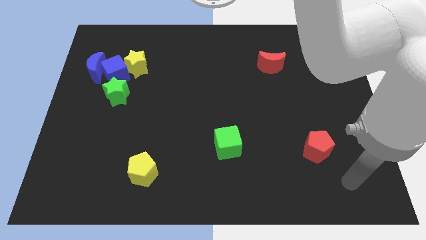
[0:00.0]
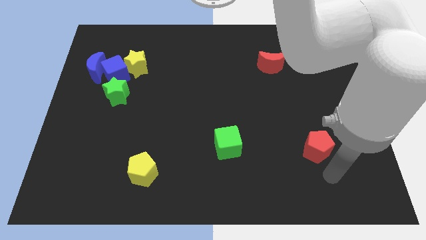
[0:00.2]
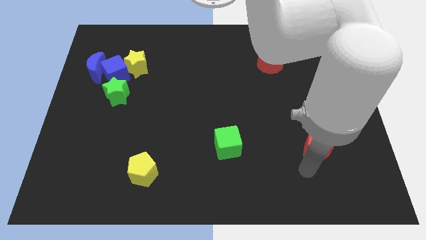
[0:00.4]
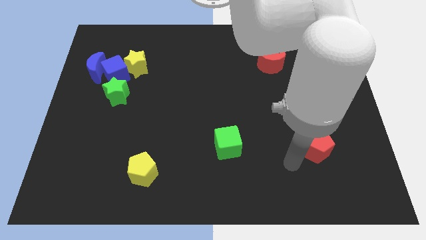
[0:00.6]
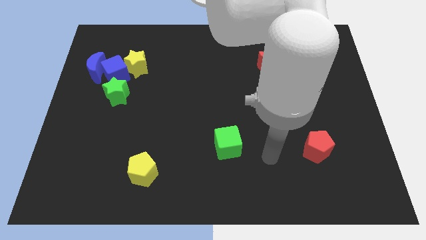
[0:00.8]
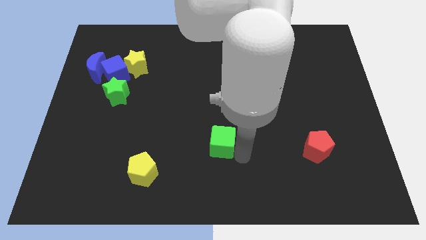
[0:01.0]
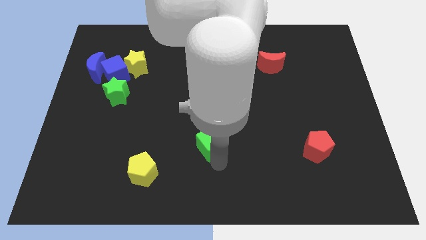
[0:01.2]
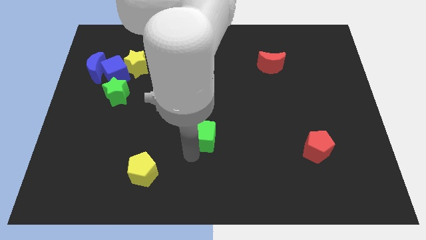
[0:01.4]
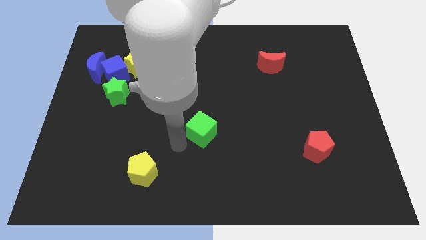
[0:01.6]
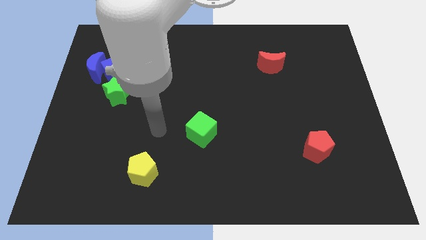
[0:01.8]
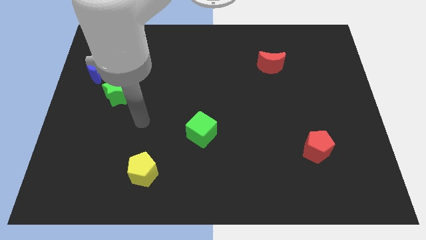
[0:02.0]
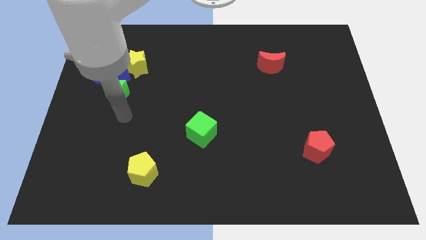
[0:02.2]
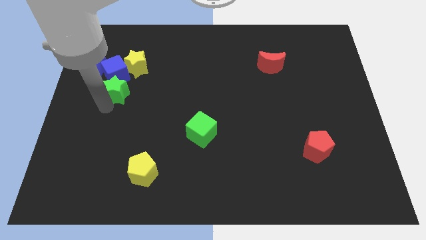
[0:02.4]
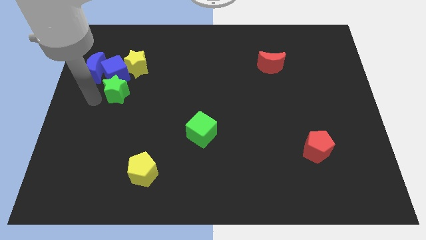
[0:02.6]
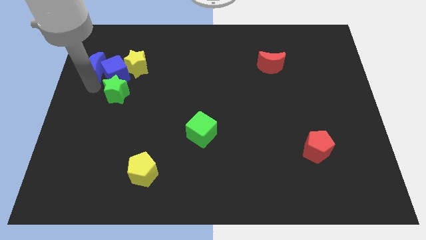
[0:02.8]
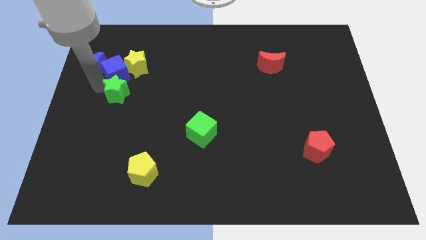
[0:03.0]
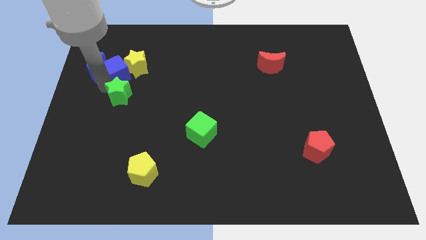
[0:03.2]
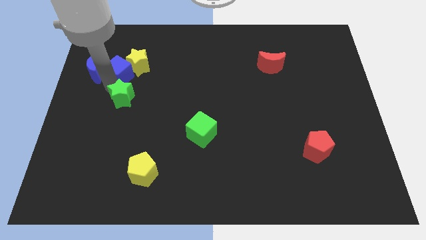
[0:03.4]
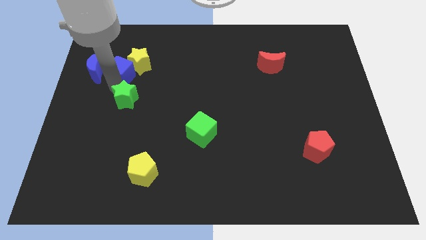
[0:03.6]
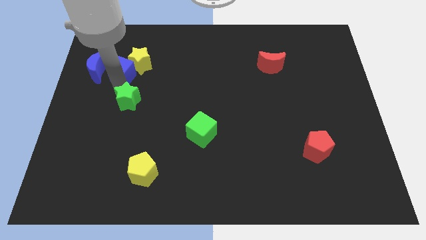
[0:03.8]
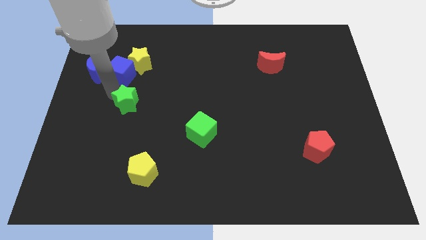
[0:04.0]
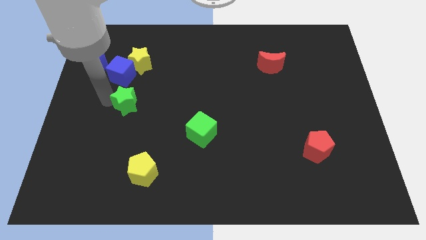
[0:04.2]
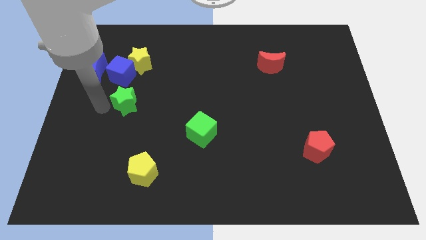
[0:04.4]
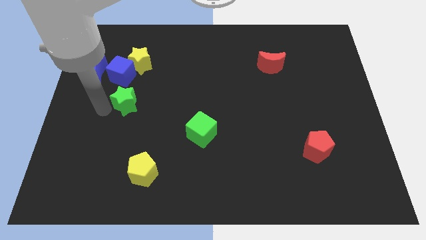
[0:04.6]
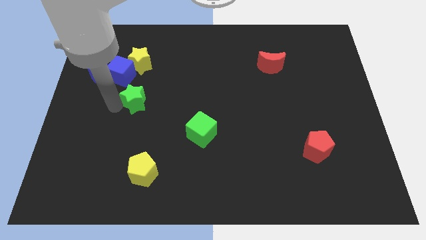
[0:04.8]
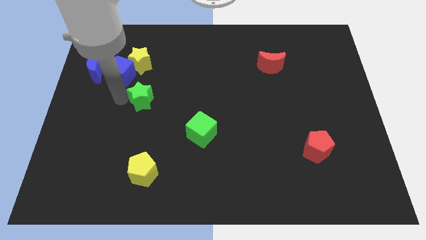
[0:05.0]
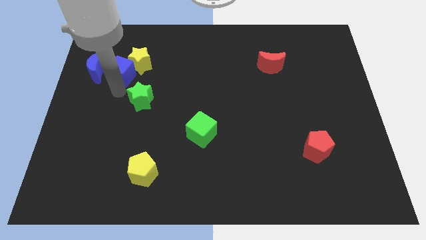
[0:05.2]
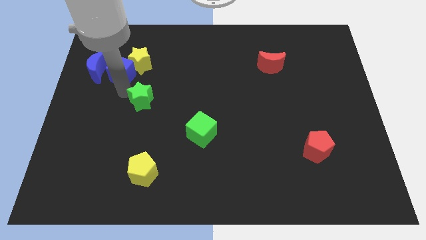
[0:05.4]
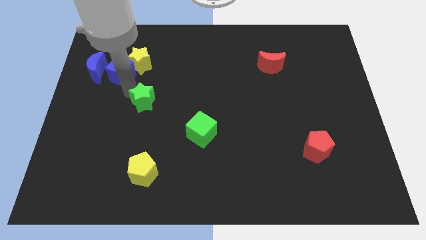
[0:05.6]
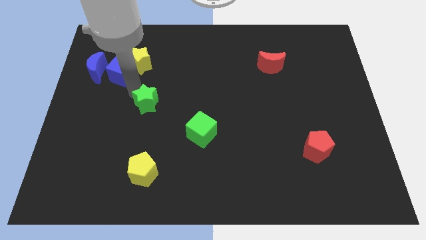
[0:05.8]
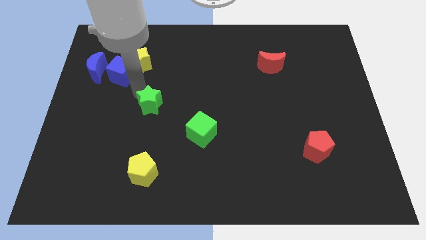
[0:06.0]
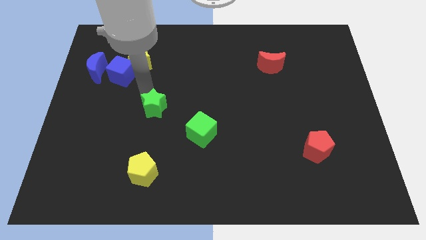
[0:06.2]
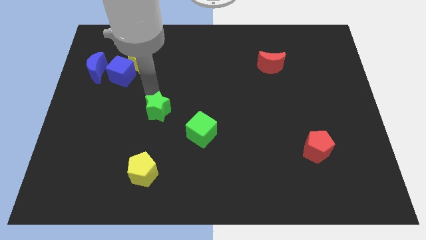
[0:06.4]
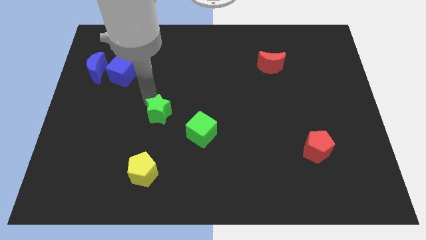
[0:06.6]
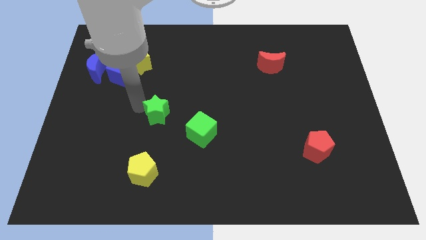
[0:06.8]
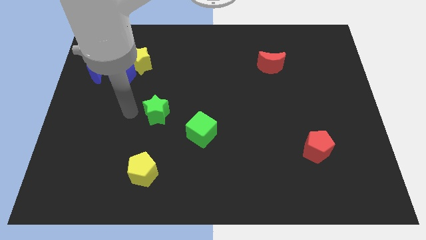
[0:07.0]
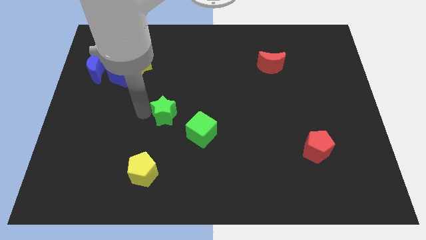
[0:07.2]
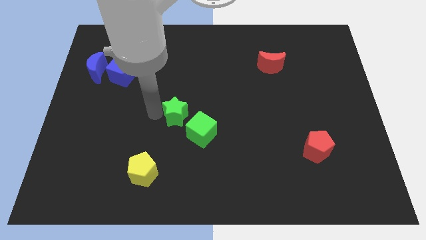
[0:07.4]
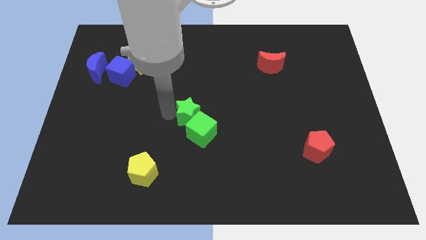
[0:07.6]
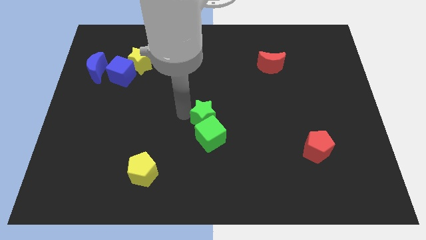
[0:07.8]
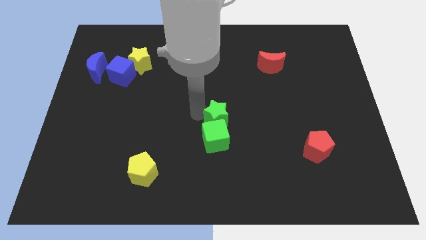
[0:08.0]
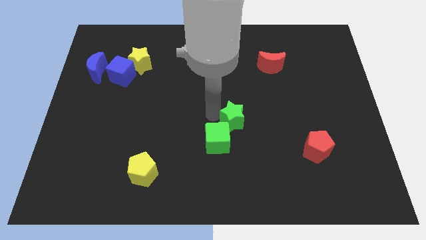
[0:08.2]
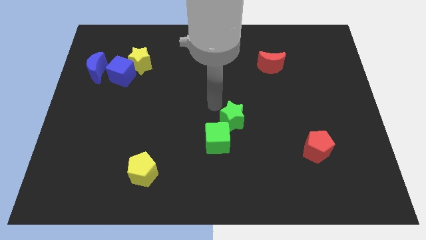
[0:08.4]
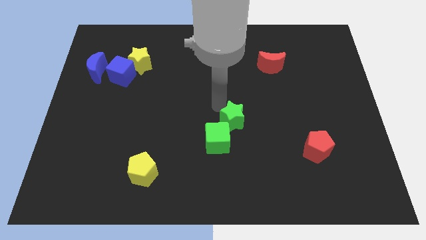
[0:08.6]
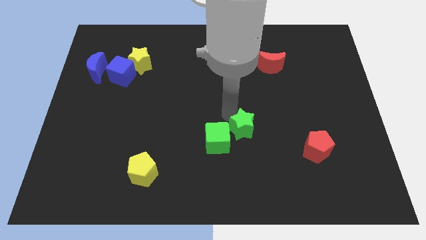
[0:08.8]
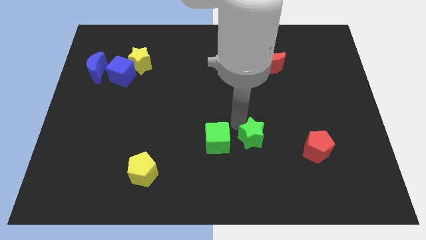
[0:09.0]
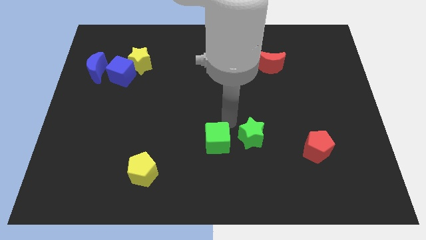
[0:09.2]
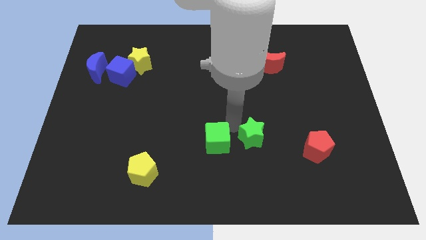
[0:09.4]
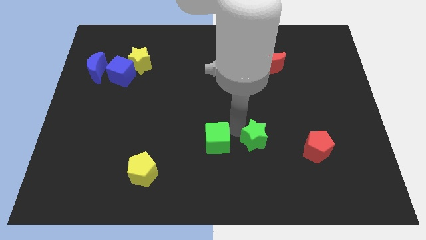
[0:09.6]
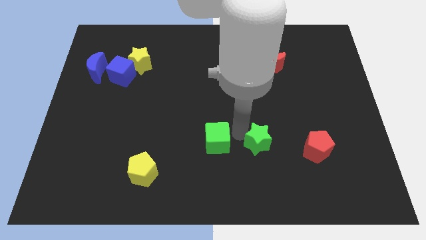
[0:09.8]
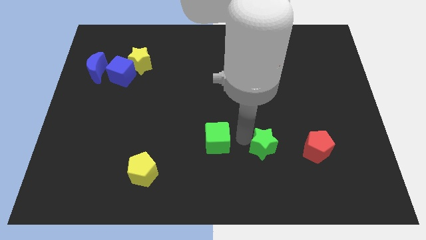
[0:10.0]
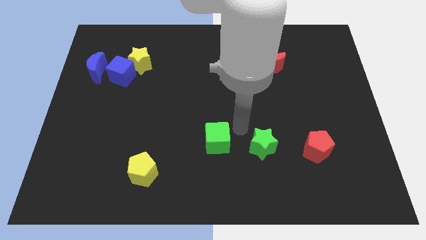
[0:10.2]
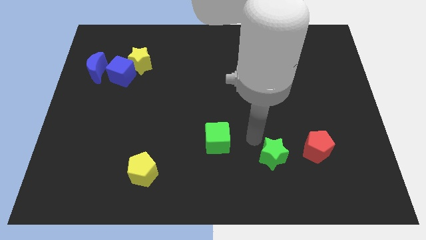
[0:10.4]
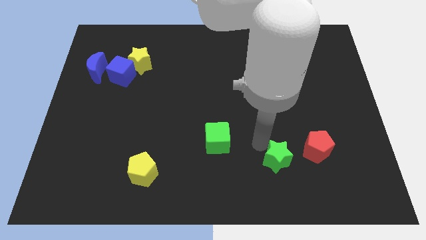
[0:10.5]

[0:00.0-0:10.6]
put the green star to the bottom left side of the red pentagon

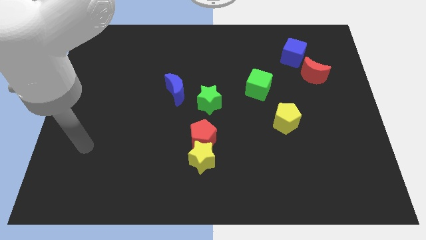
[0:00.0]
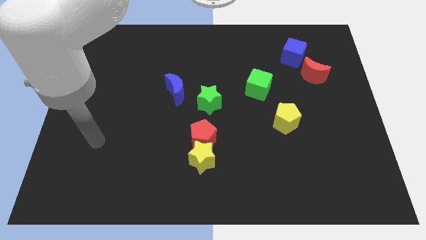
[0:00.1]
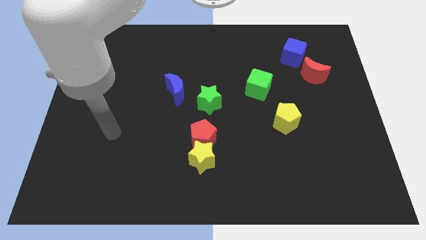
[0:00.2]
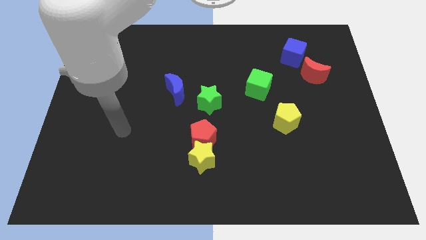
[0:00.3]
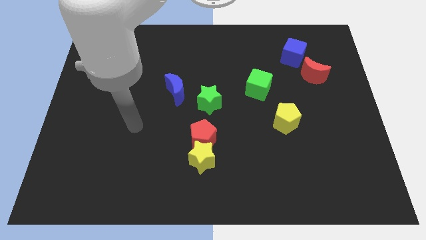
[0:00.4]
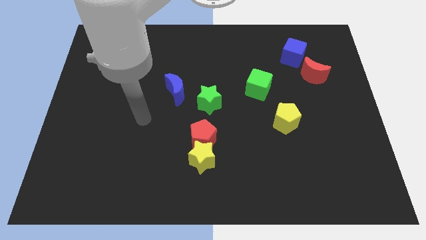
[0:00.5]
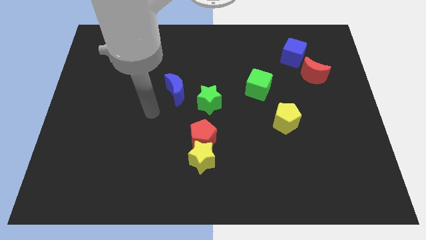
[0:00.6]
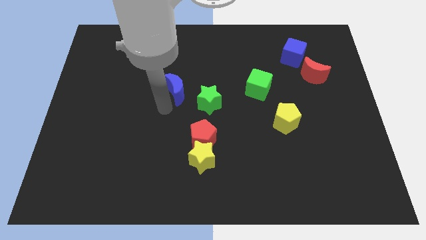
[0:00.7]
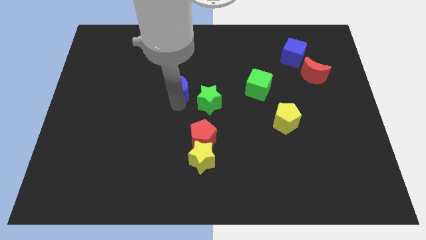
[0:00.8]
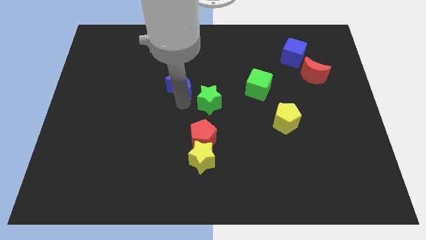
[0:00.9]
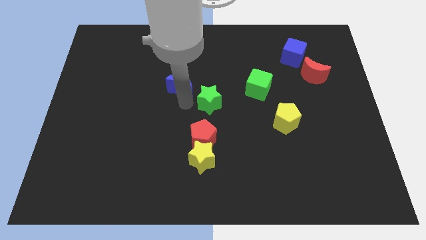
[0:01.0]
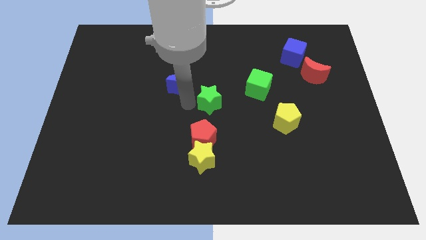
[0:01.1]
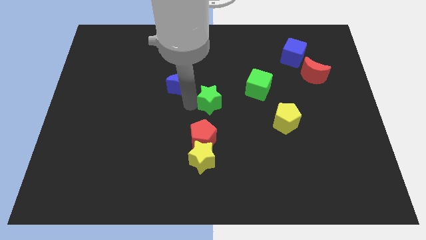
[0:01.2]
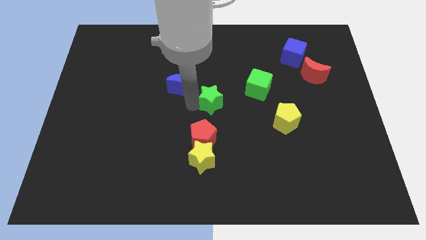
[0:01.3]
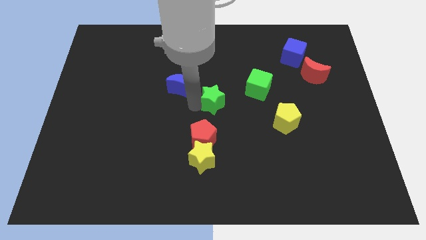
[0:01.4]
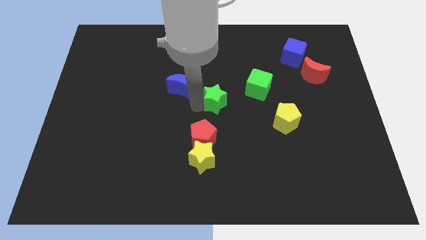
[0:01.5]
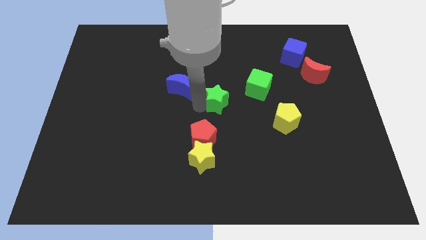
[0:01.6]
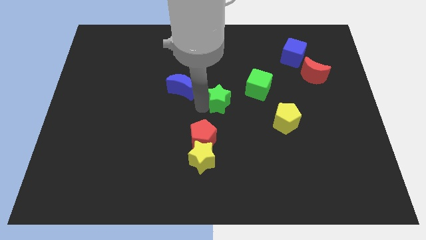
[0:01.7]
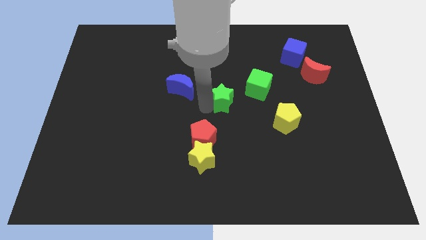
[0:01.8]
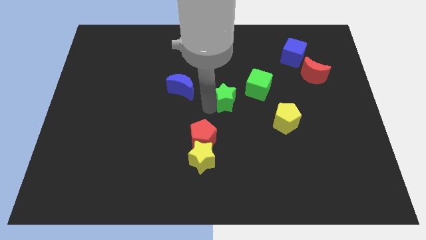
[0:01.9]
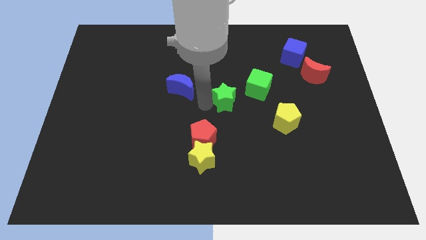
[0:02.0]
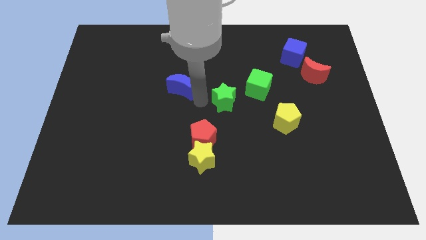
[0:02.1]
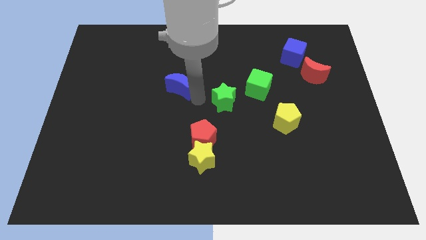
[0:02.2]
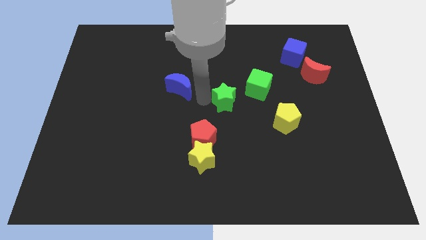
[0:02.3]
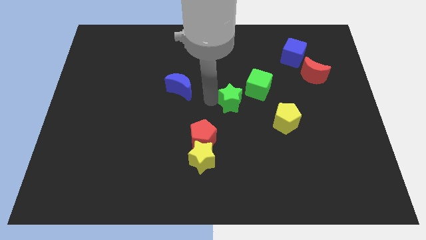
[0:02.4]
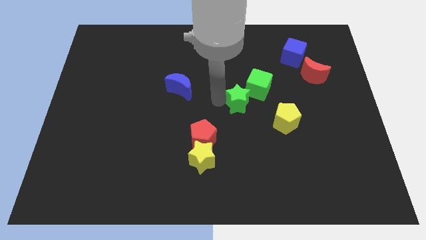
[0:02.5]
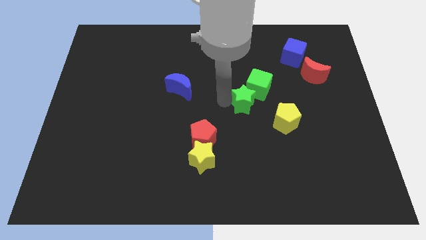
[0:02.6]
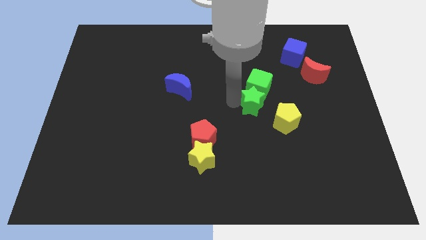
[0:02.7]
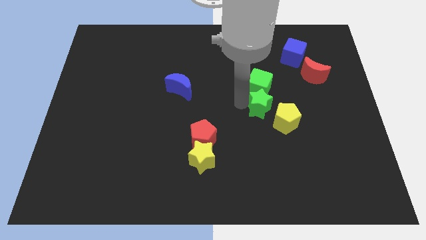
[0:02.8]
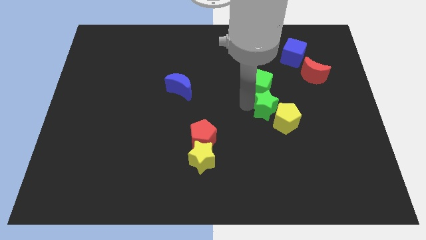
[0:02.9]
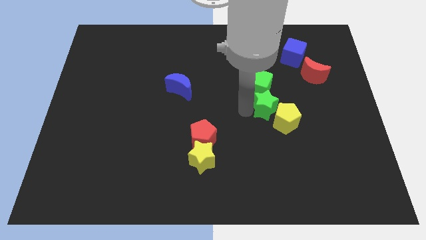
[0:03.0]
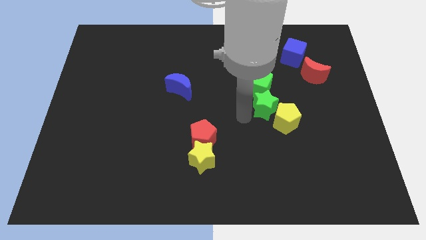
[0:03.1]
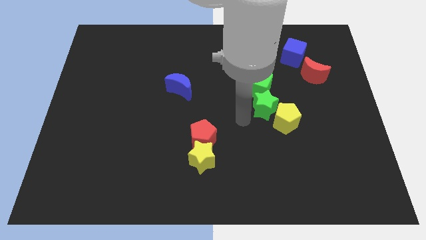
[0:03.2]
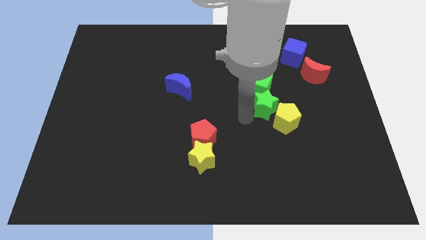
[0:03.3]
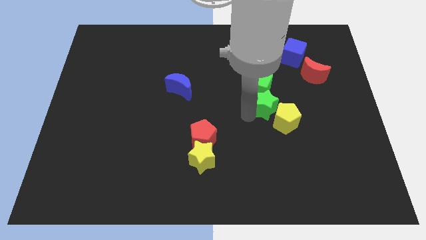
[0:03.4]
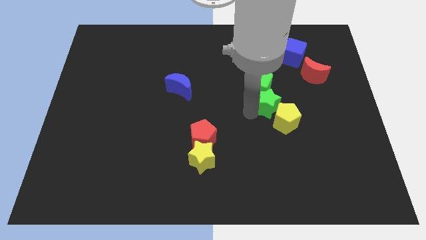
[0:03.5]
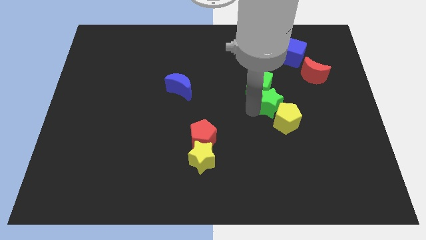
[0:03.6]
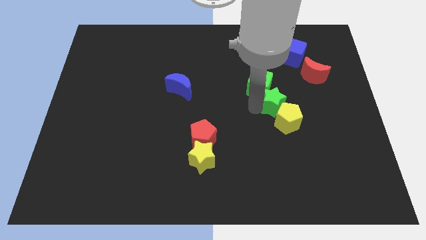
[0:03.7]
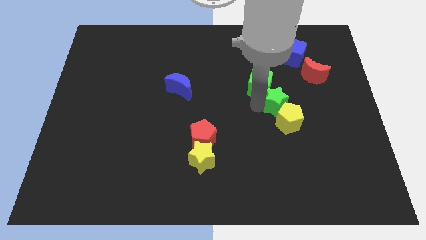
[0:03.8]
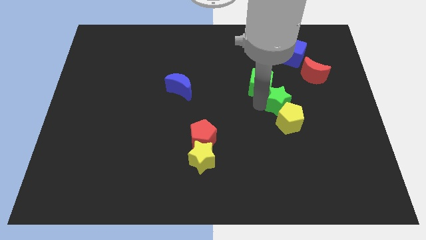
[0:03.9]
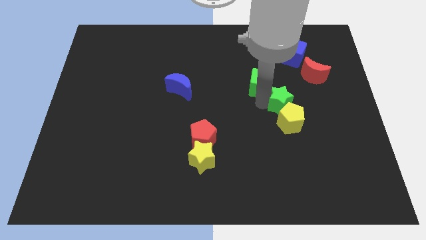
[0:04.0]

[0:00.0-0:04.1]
put the green star to the bottom left of the red moon
